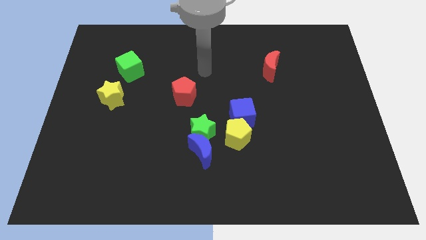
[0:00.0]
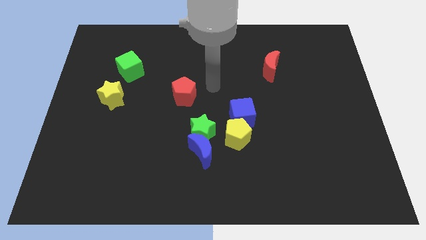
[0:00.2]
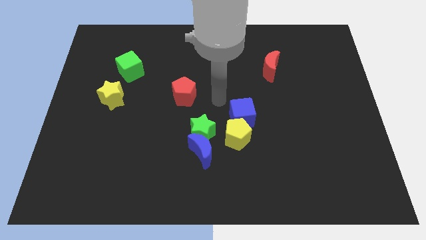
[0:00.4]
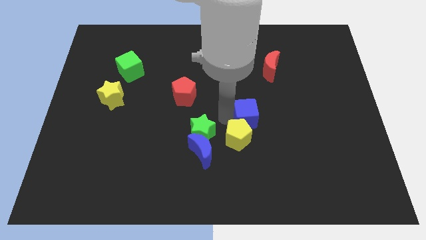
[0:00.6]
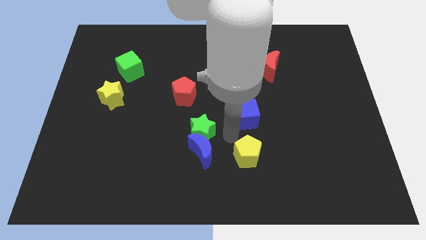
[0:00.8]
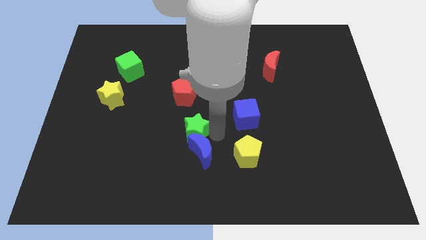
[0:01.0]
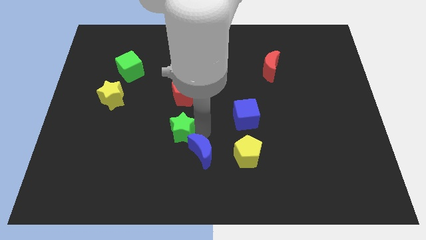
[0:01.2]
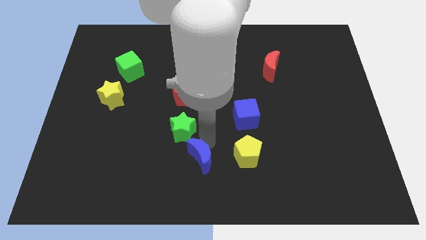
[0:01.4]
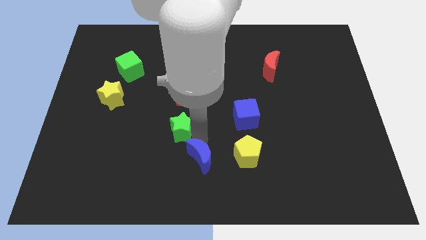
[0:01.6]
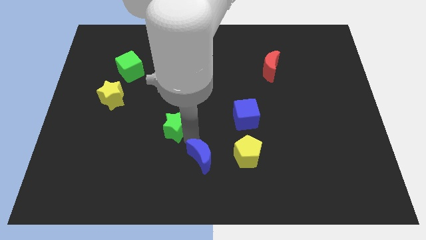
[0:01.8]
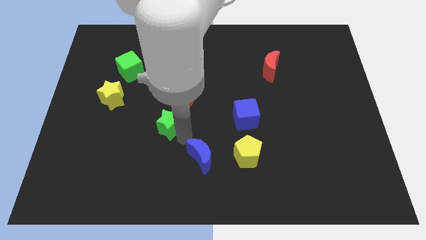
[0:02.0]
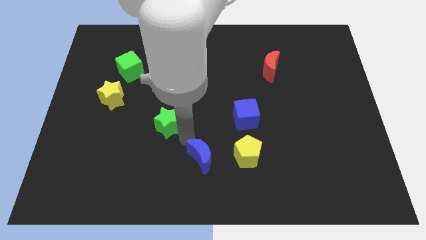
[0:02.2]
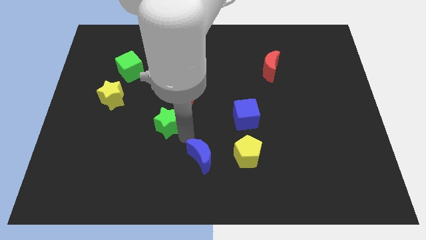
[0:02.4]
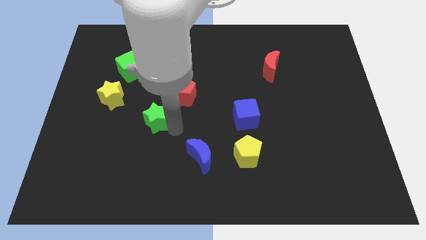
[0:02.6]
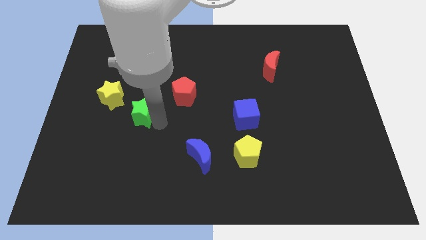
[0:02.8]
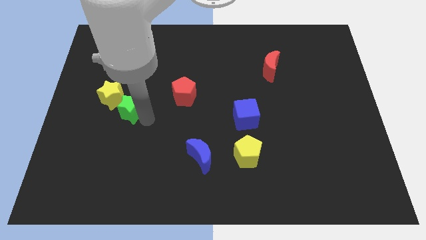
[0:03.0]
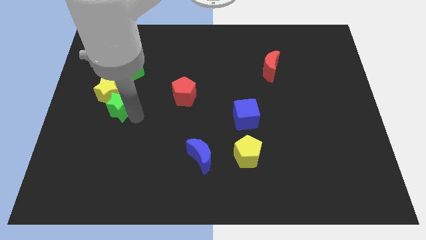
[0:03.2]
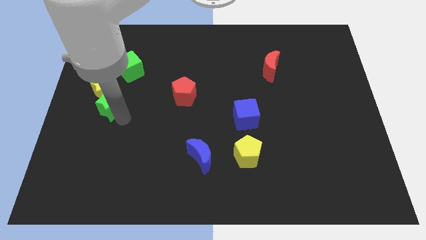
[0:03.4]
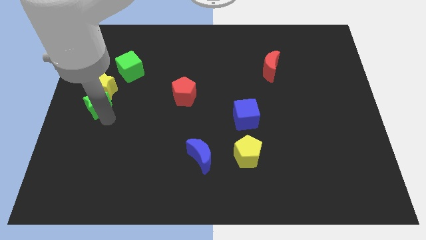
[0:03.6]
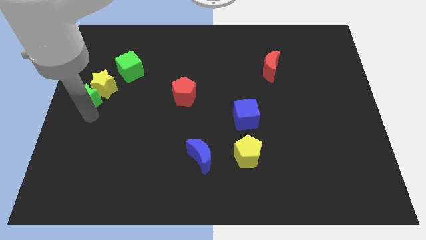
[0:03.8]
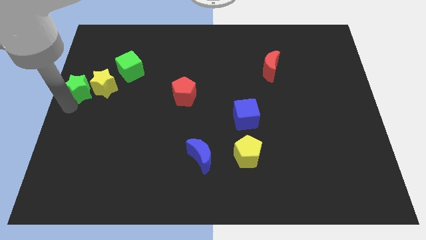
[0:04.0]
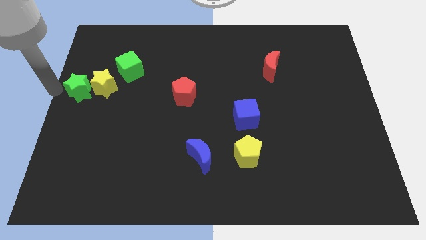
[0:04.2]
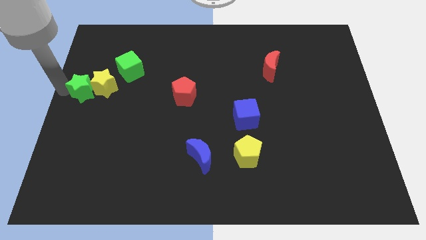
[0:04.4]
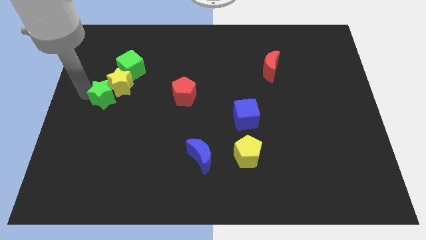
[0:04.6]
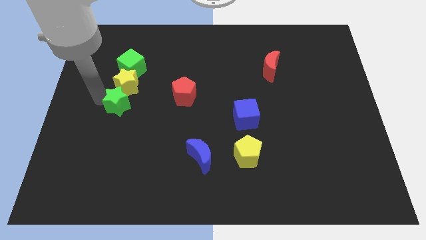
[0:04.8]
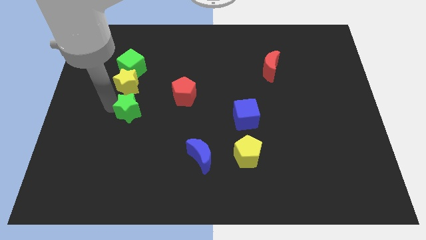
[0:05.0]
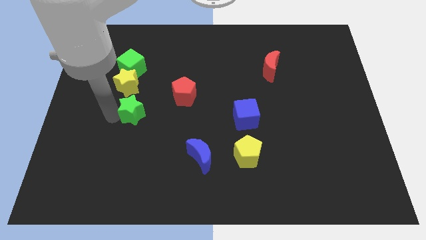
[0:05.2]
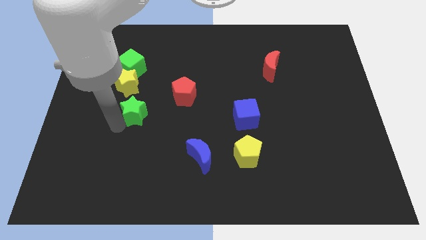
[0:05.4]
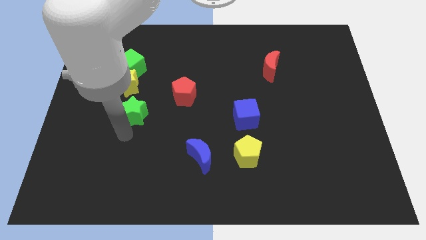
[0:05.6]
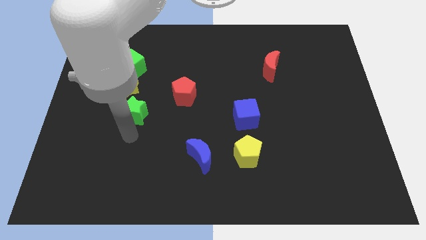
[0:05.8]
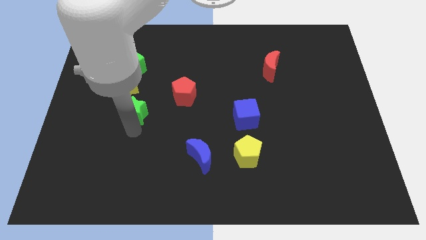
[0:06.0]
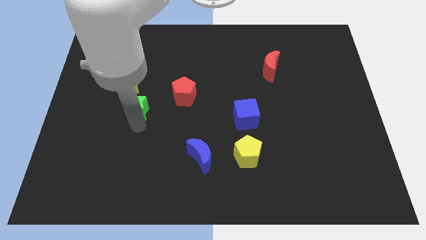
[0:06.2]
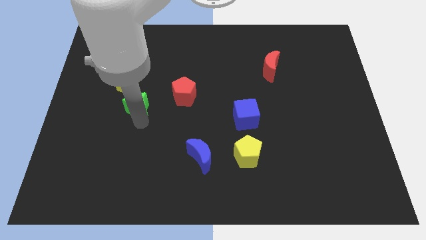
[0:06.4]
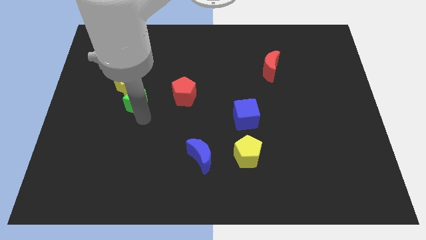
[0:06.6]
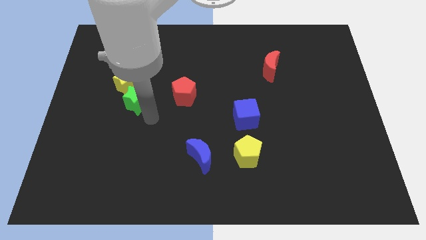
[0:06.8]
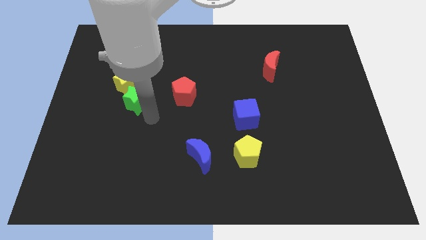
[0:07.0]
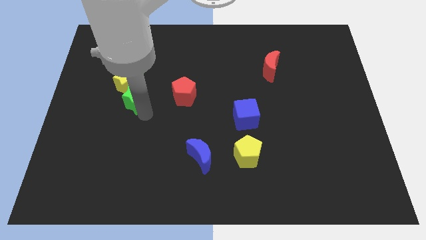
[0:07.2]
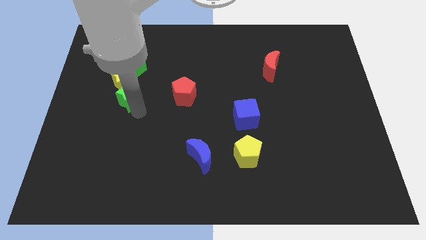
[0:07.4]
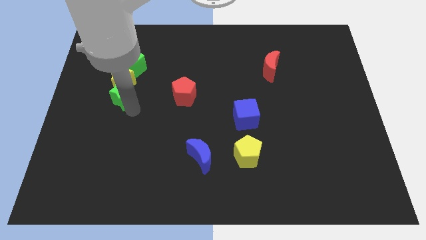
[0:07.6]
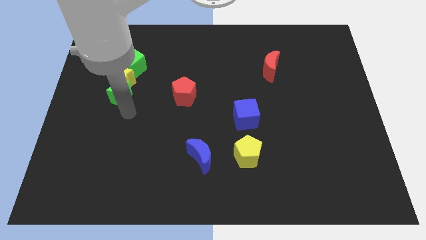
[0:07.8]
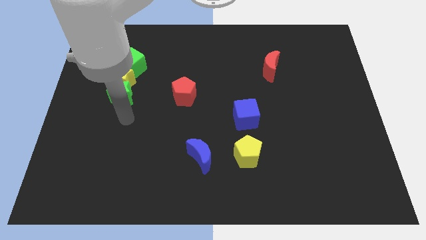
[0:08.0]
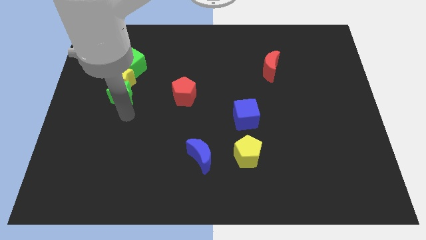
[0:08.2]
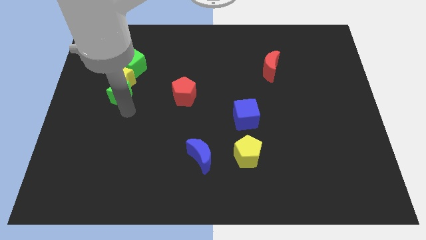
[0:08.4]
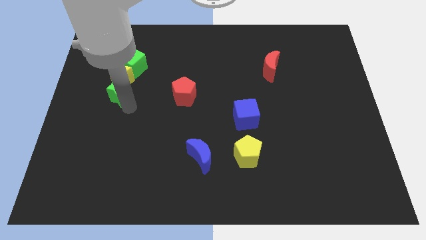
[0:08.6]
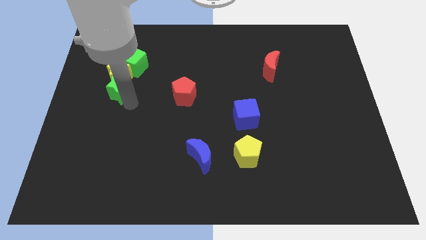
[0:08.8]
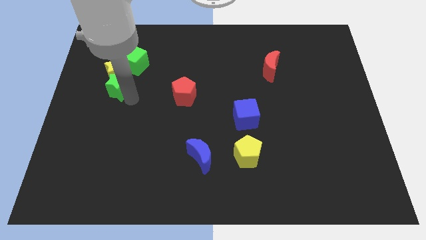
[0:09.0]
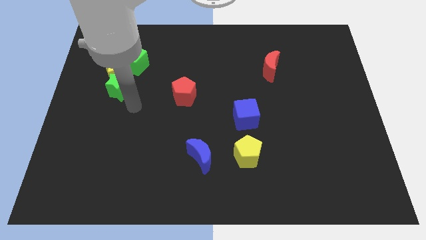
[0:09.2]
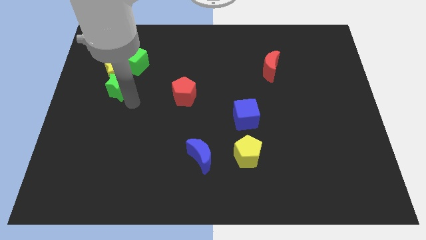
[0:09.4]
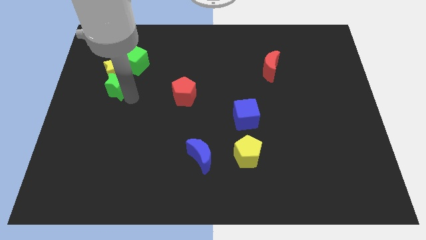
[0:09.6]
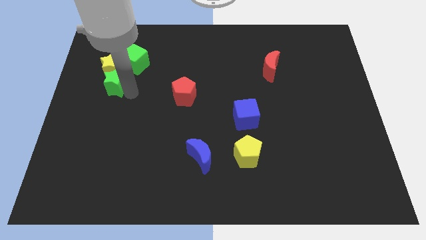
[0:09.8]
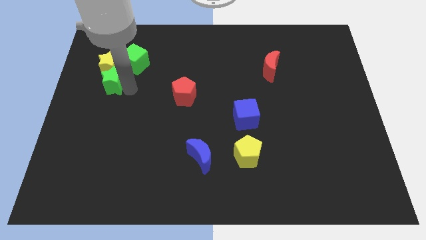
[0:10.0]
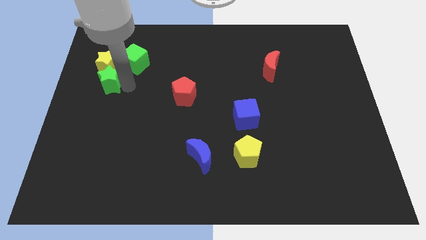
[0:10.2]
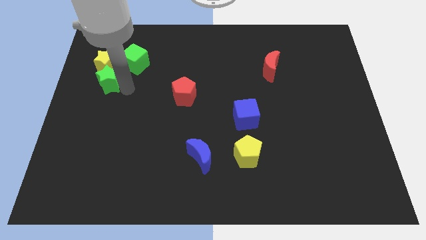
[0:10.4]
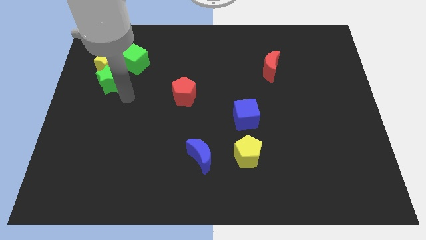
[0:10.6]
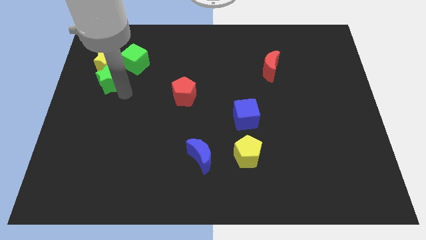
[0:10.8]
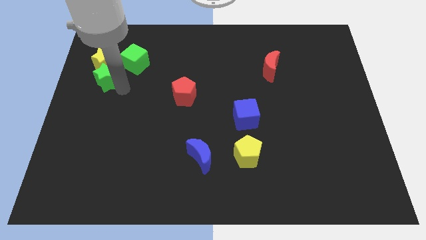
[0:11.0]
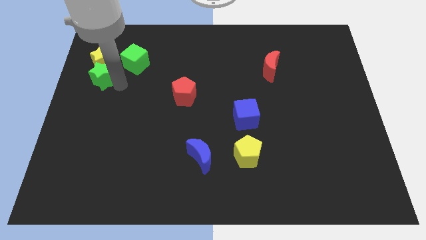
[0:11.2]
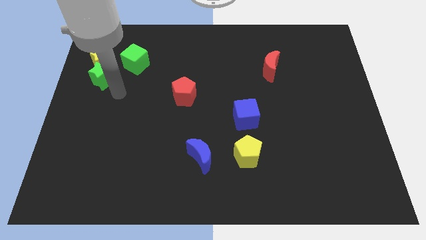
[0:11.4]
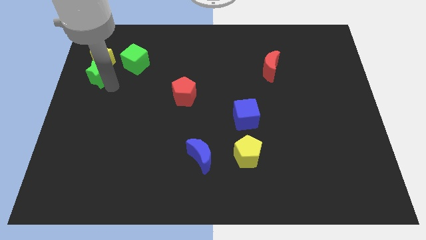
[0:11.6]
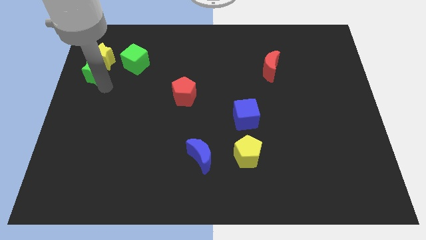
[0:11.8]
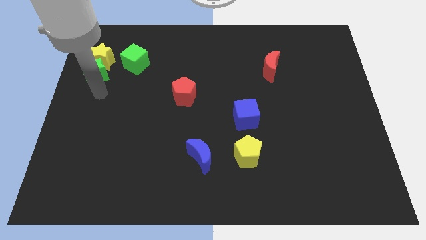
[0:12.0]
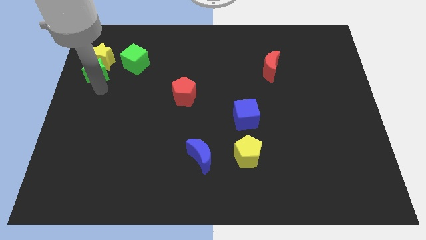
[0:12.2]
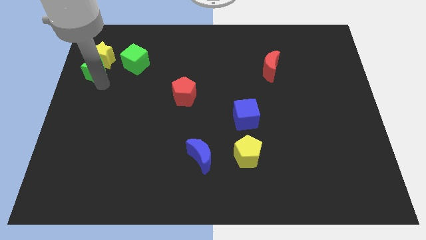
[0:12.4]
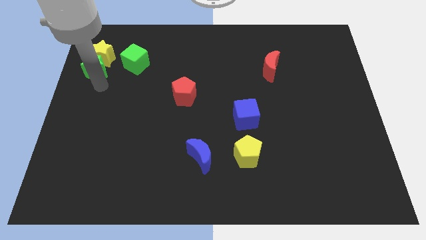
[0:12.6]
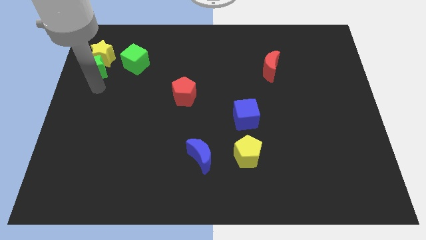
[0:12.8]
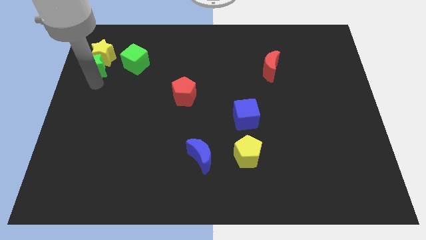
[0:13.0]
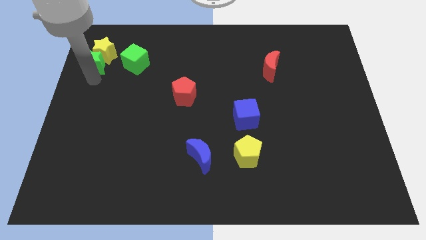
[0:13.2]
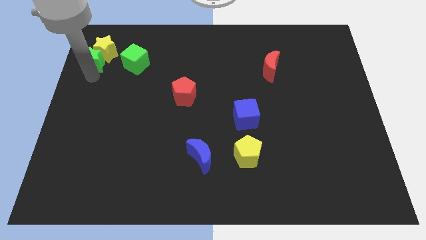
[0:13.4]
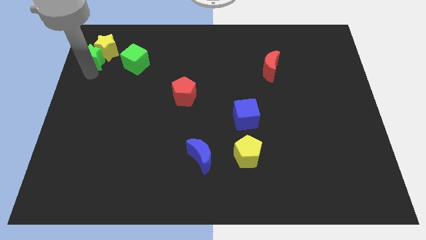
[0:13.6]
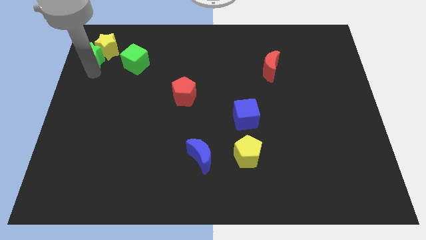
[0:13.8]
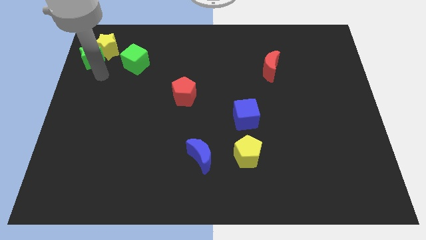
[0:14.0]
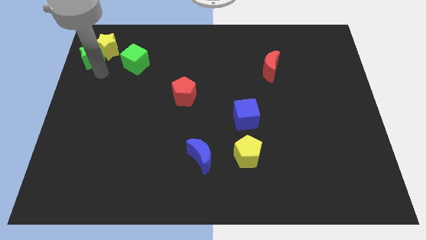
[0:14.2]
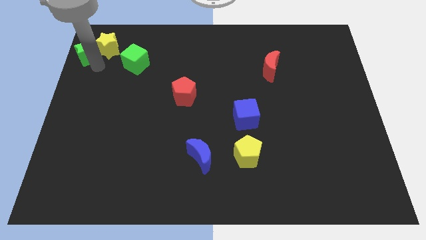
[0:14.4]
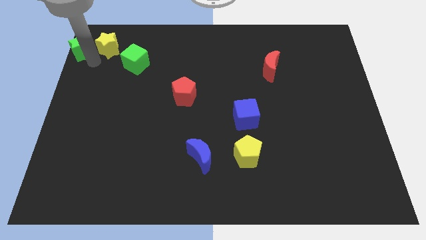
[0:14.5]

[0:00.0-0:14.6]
move the green star to the top left corner
